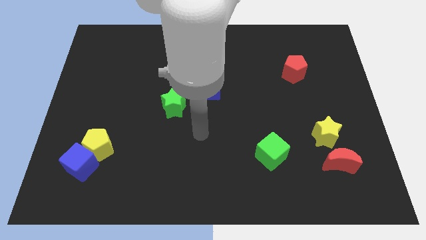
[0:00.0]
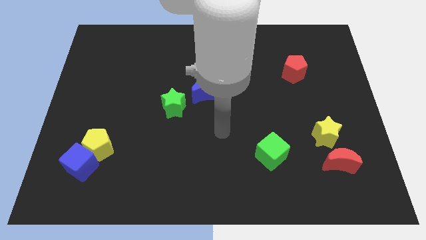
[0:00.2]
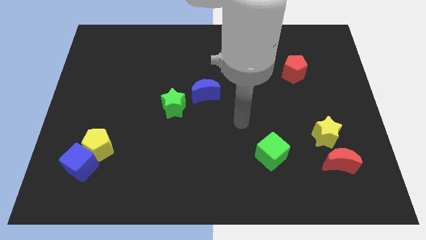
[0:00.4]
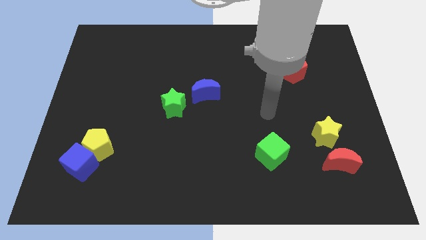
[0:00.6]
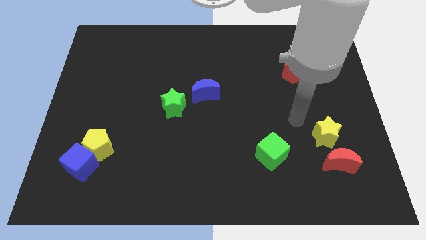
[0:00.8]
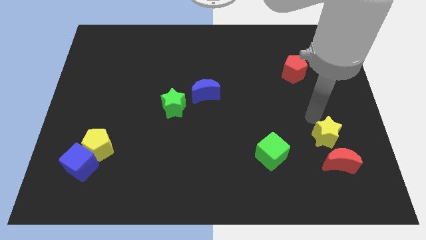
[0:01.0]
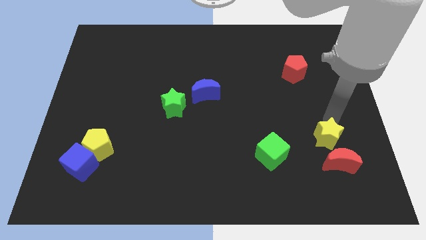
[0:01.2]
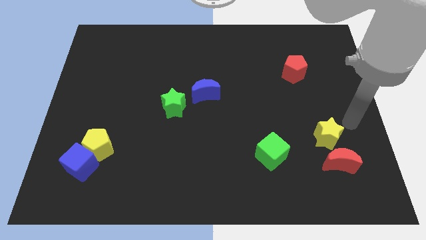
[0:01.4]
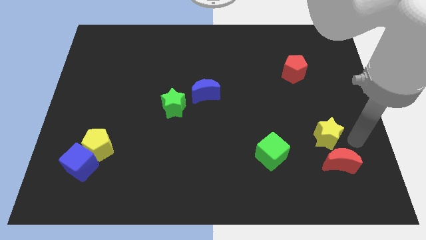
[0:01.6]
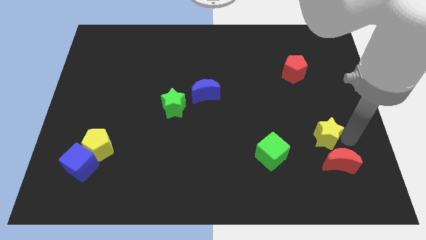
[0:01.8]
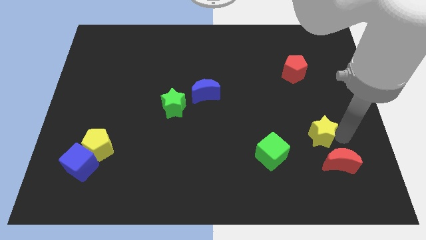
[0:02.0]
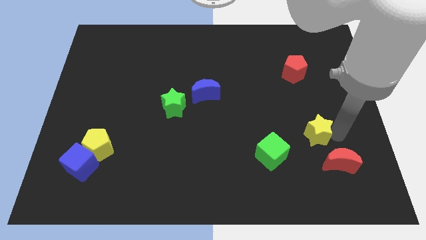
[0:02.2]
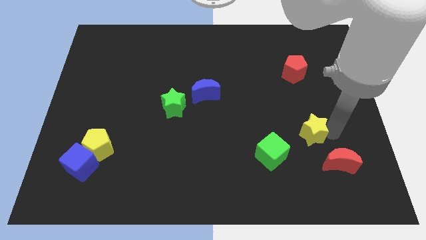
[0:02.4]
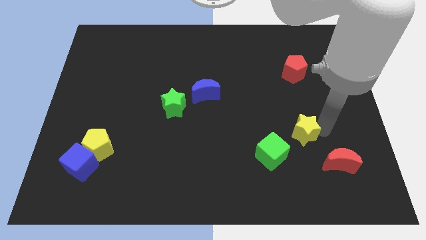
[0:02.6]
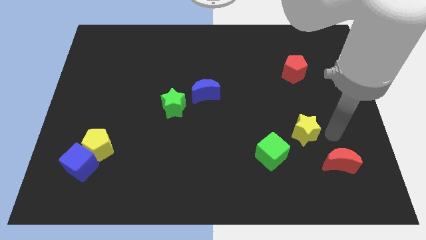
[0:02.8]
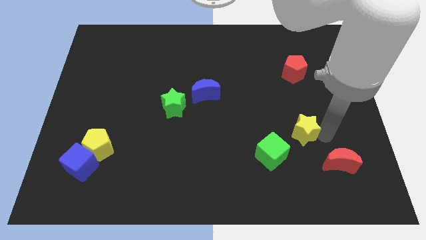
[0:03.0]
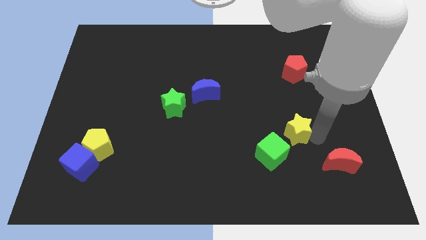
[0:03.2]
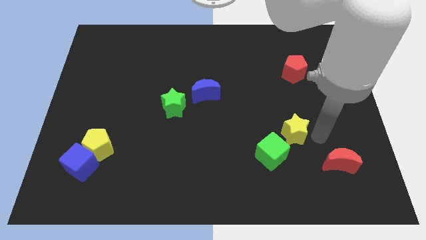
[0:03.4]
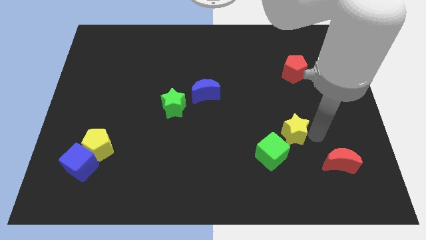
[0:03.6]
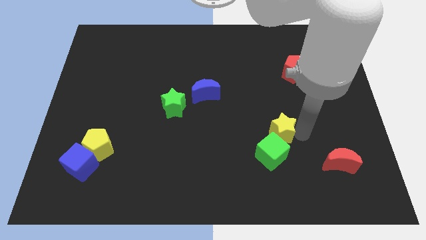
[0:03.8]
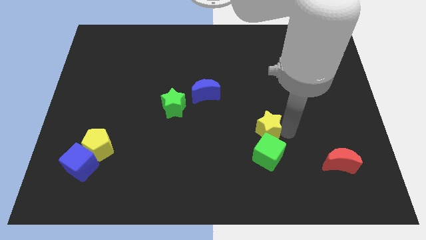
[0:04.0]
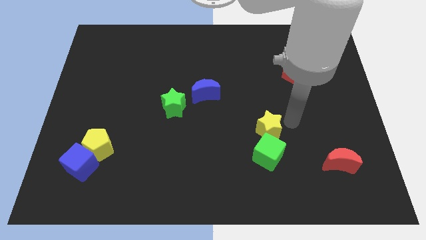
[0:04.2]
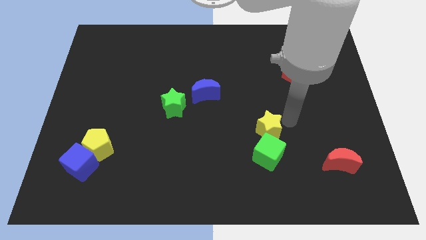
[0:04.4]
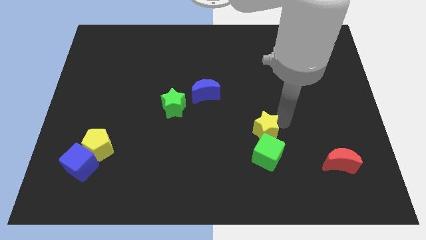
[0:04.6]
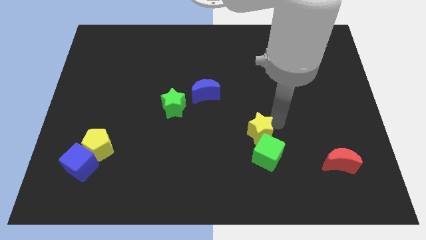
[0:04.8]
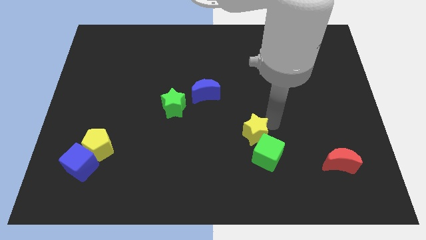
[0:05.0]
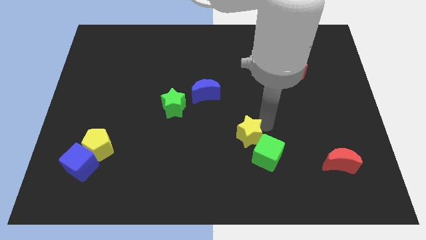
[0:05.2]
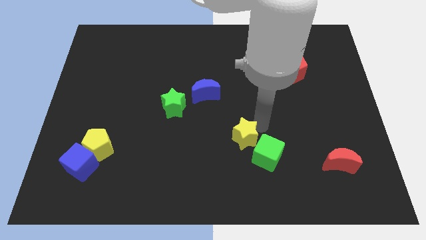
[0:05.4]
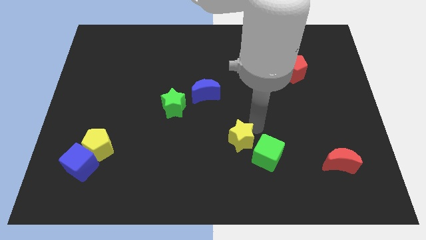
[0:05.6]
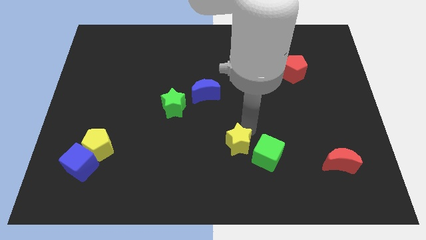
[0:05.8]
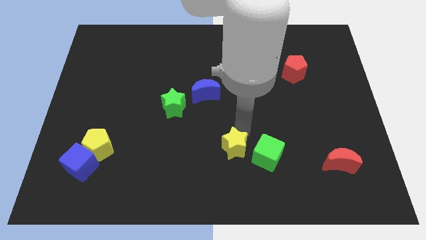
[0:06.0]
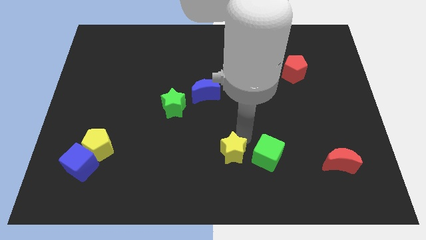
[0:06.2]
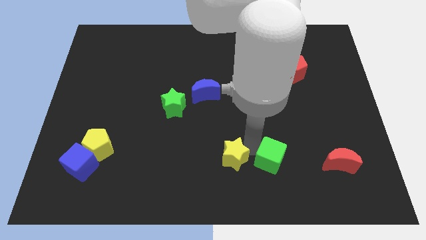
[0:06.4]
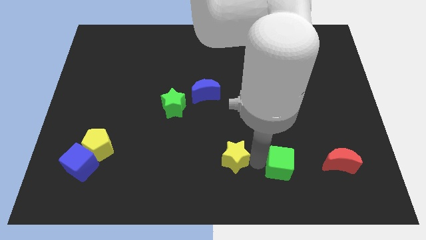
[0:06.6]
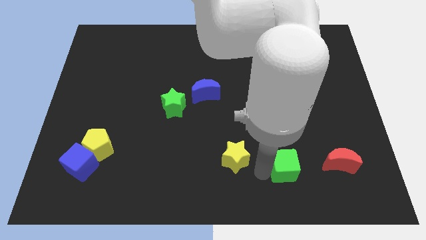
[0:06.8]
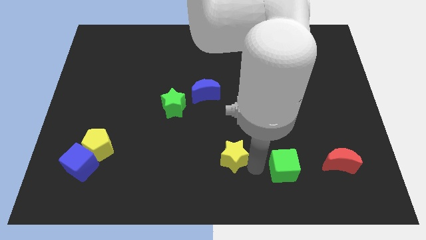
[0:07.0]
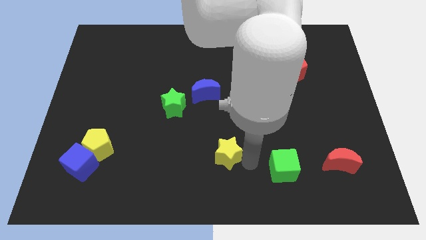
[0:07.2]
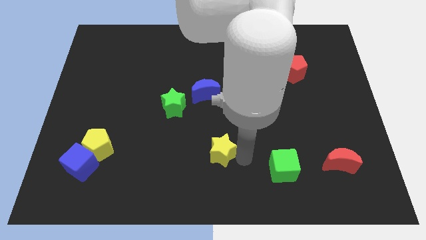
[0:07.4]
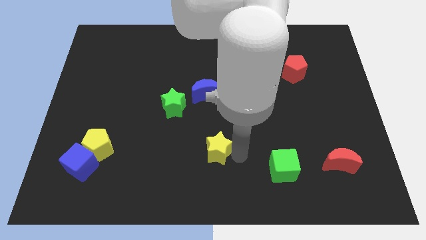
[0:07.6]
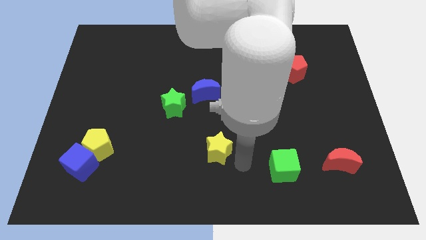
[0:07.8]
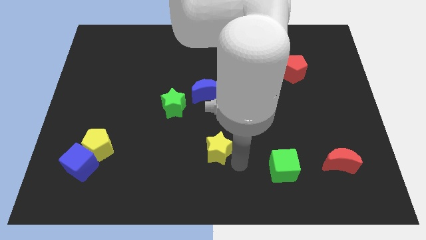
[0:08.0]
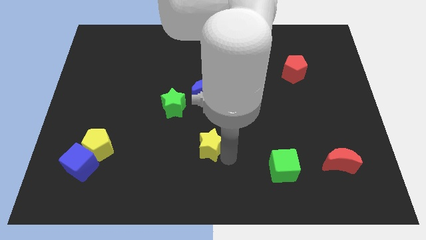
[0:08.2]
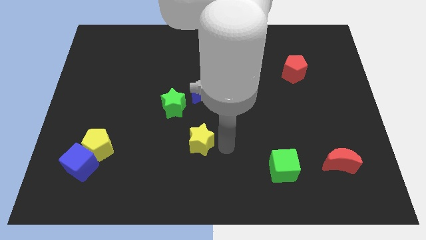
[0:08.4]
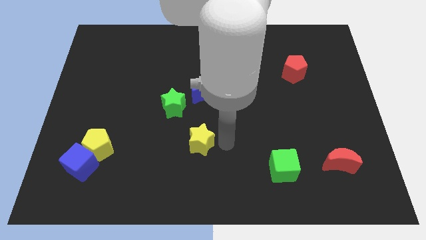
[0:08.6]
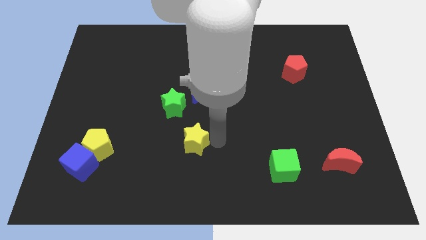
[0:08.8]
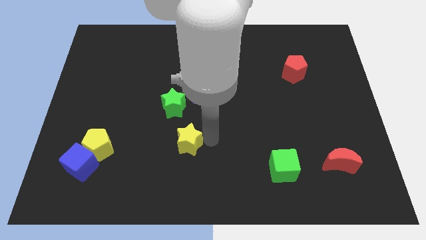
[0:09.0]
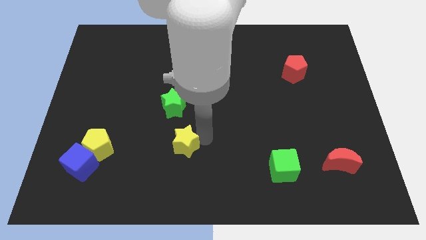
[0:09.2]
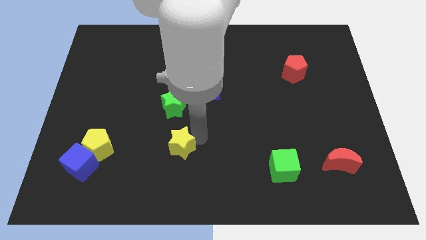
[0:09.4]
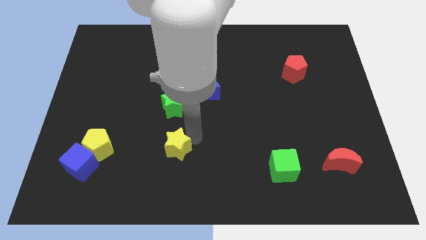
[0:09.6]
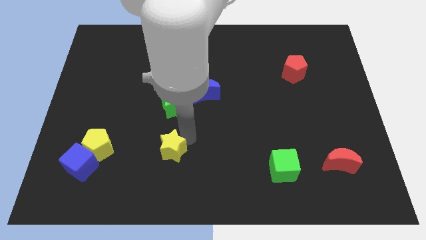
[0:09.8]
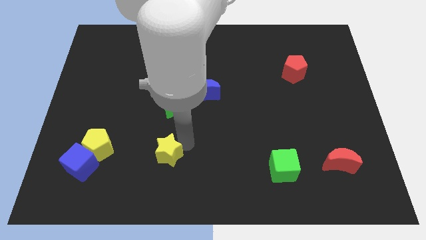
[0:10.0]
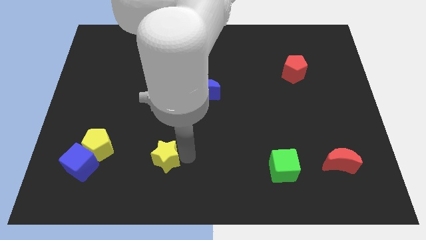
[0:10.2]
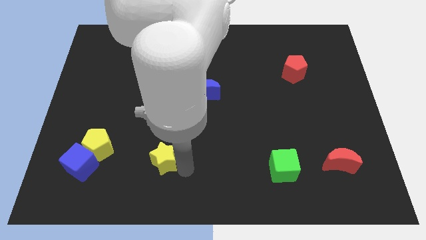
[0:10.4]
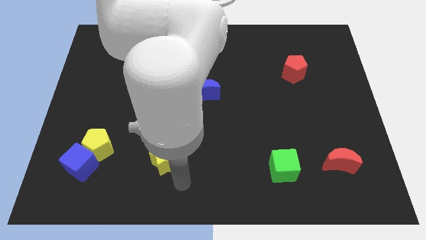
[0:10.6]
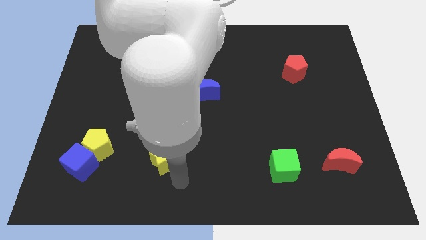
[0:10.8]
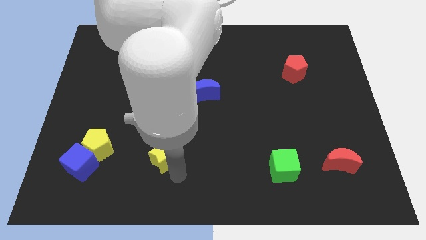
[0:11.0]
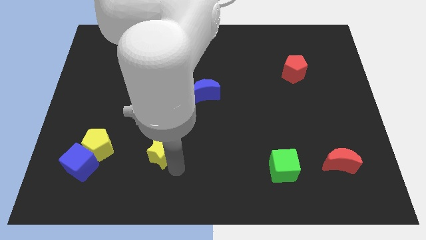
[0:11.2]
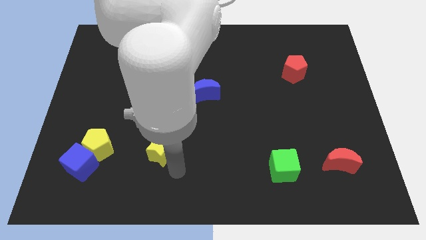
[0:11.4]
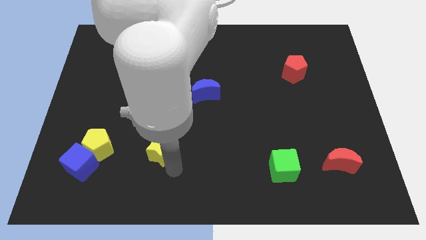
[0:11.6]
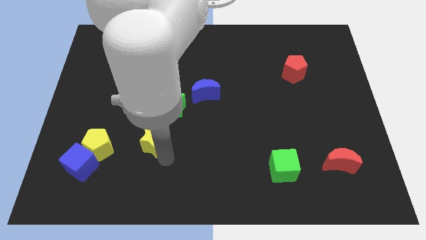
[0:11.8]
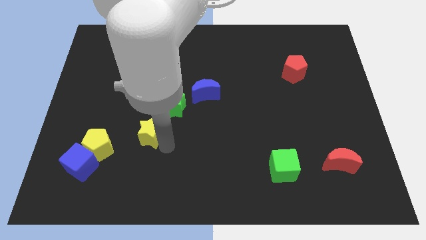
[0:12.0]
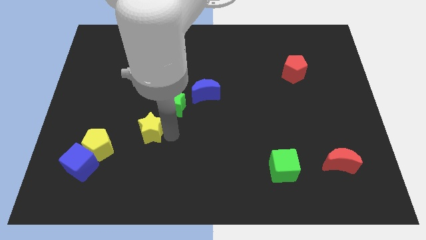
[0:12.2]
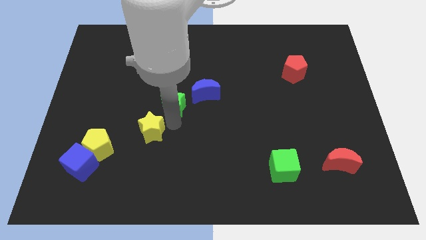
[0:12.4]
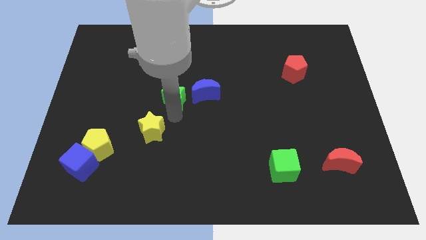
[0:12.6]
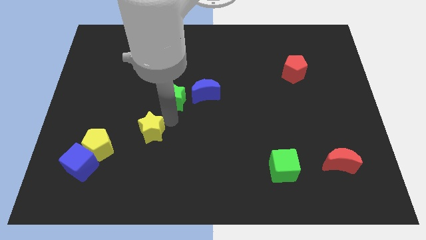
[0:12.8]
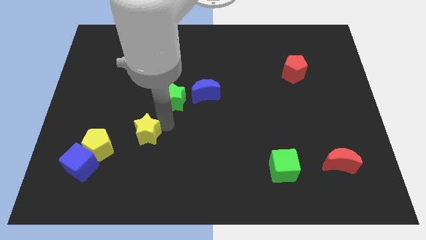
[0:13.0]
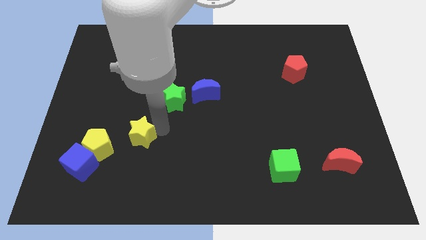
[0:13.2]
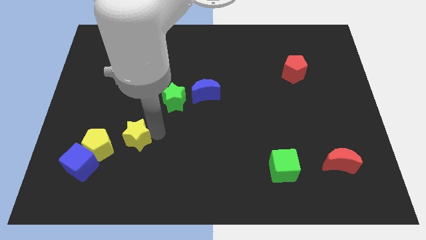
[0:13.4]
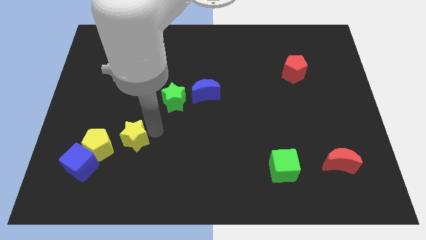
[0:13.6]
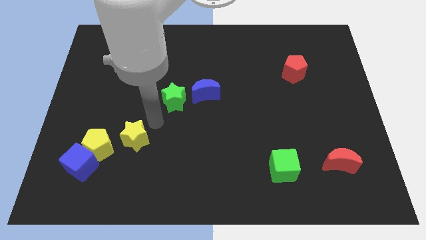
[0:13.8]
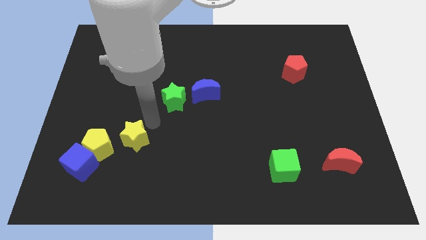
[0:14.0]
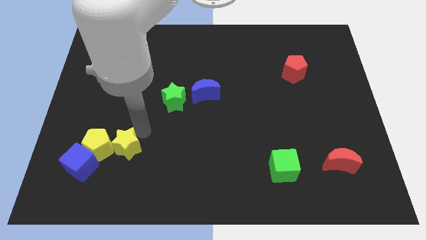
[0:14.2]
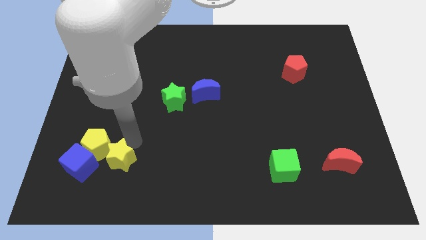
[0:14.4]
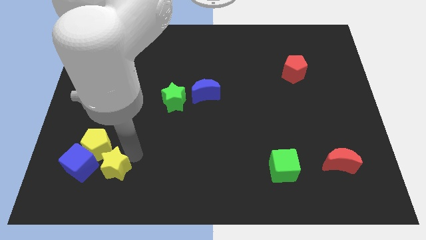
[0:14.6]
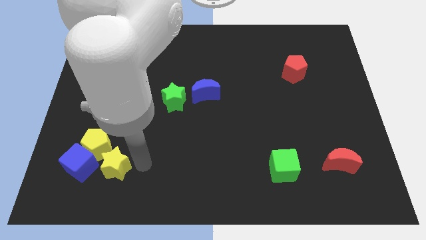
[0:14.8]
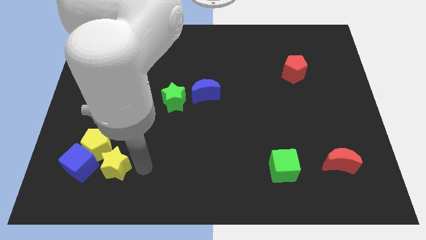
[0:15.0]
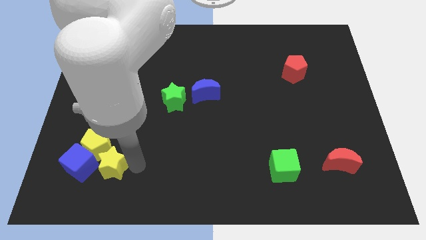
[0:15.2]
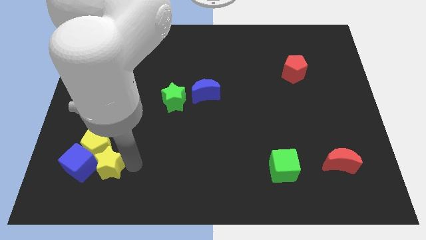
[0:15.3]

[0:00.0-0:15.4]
put the yellow star to the blue cube
